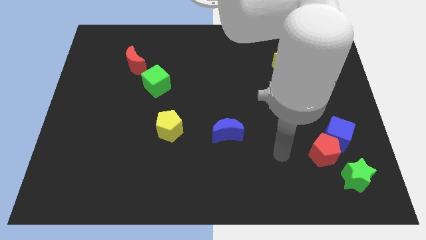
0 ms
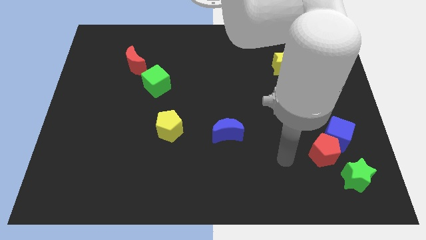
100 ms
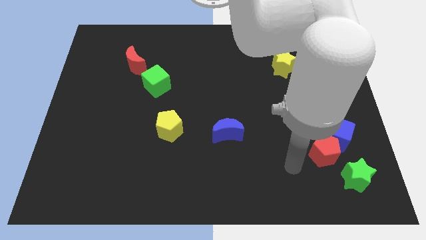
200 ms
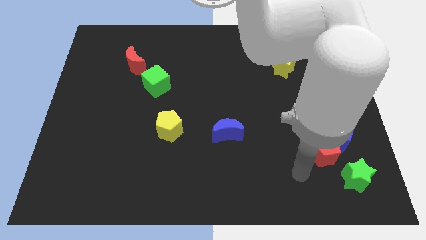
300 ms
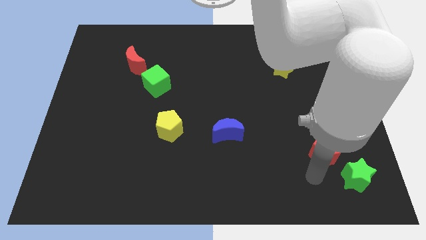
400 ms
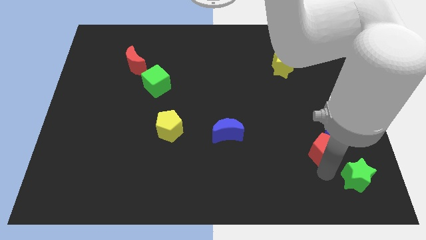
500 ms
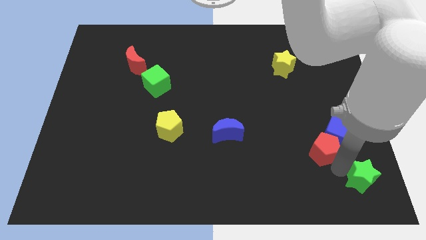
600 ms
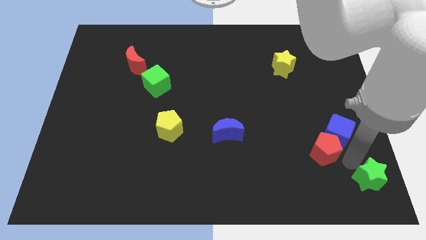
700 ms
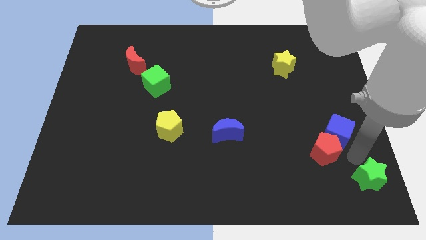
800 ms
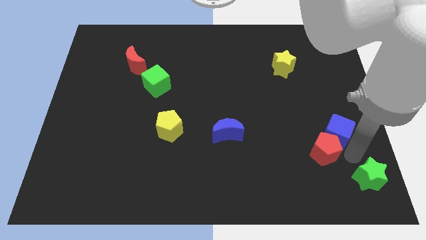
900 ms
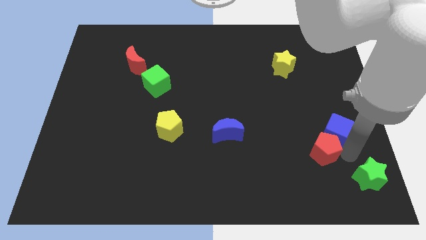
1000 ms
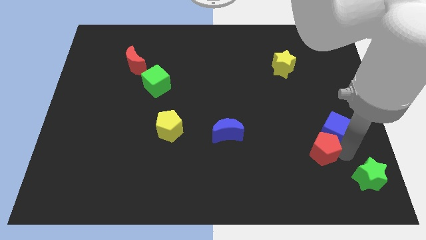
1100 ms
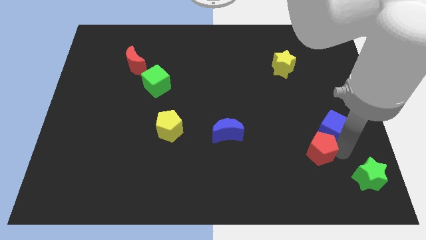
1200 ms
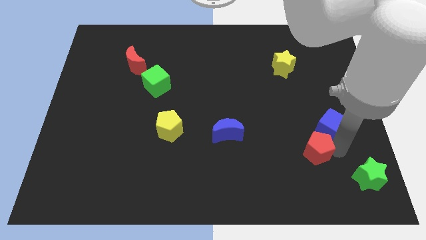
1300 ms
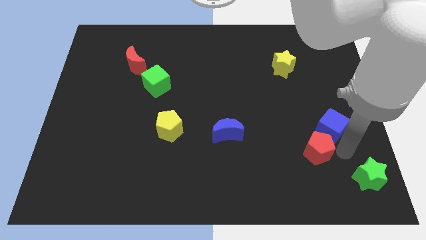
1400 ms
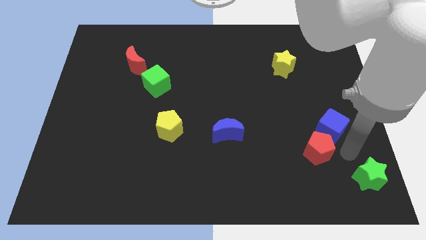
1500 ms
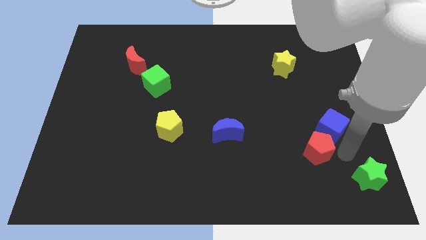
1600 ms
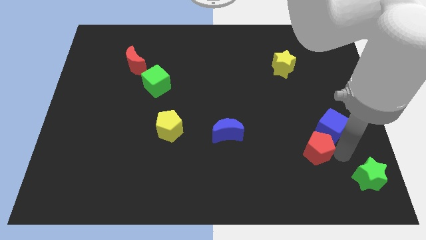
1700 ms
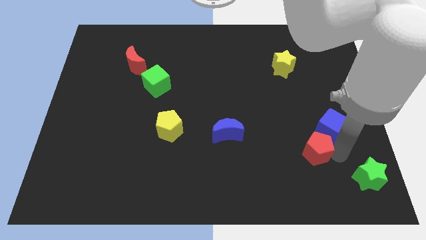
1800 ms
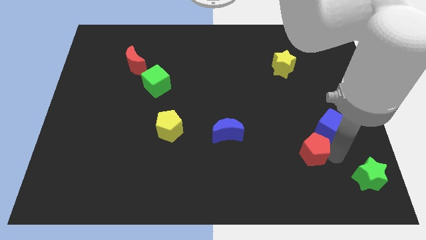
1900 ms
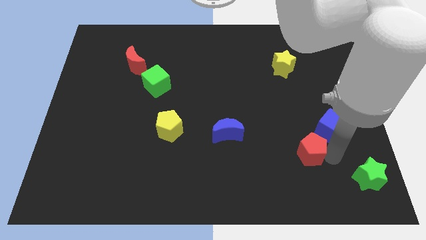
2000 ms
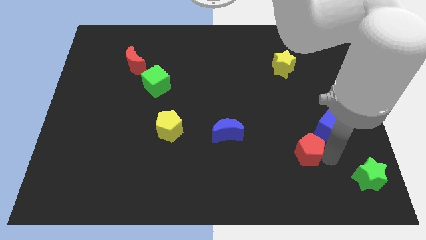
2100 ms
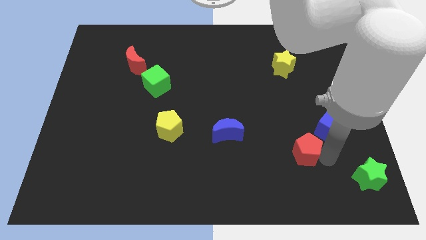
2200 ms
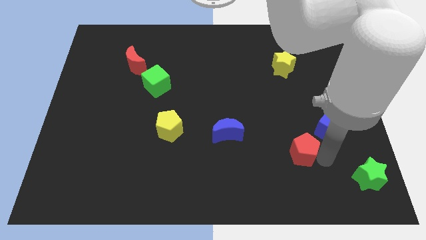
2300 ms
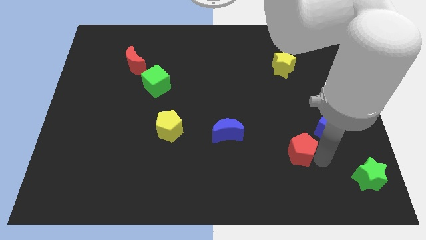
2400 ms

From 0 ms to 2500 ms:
pull the red pentagon apart from the blue cube and green star

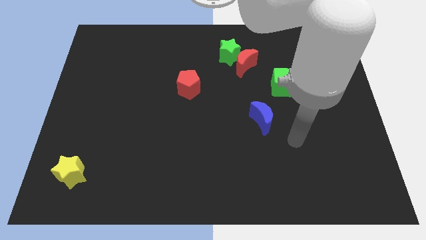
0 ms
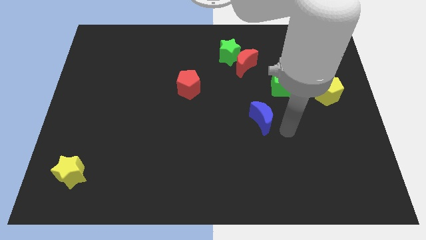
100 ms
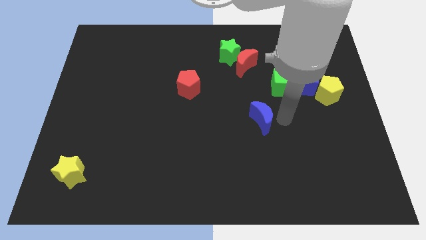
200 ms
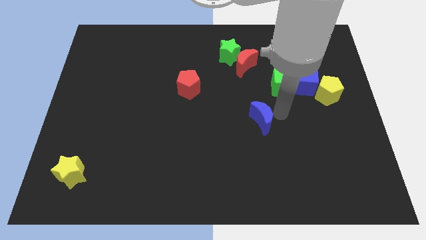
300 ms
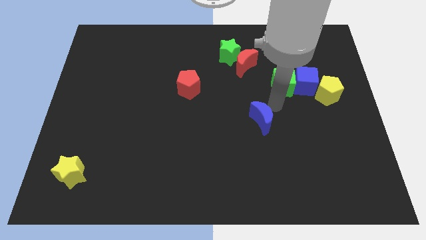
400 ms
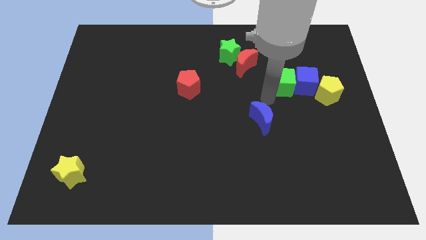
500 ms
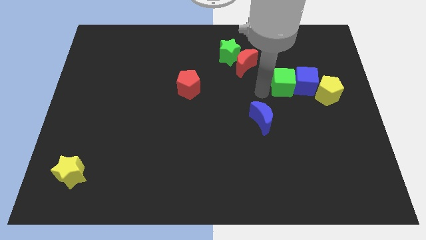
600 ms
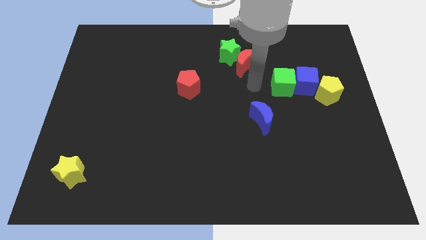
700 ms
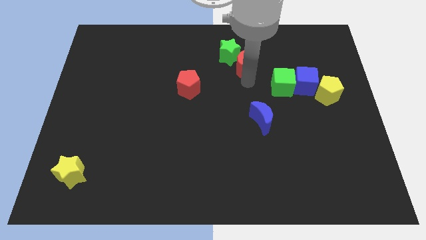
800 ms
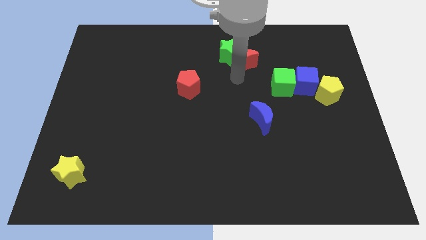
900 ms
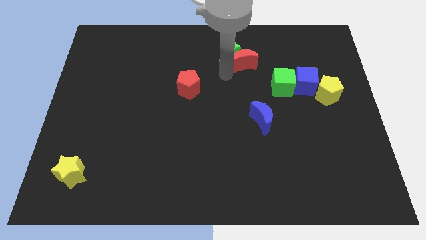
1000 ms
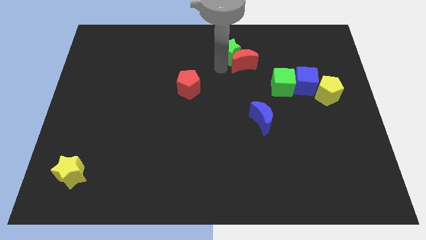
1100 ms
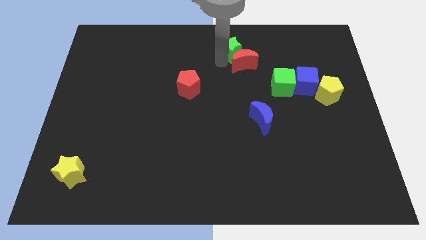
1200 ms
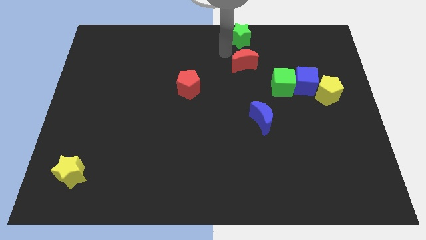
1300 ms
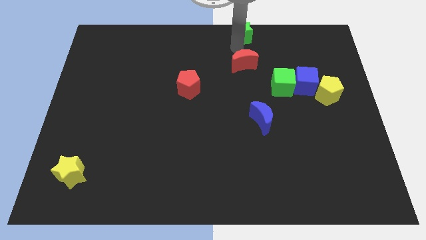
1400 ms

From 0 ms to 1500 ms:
move the red moon away from the green star

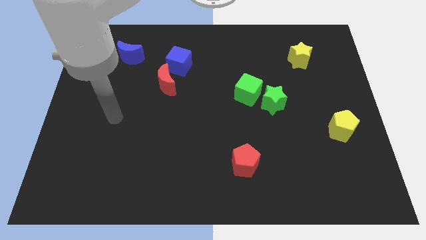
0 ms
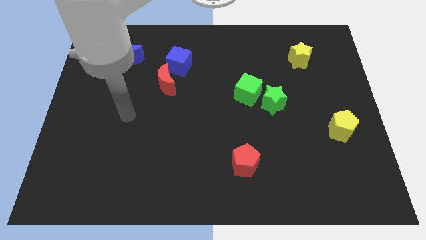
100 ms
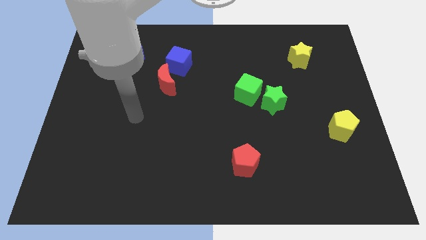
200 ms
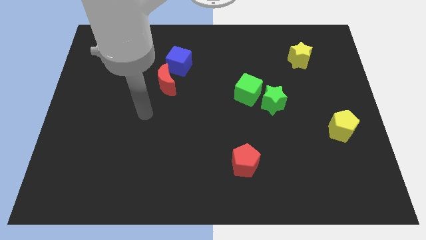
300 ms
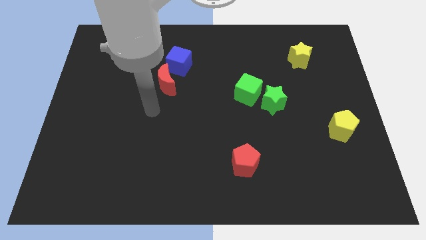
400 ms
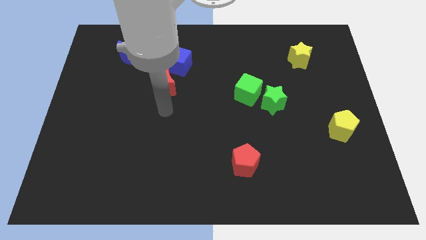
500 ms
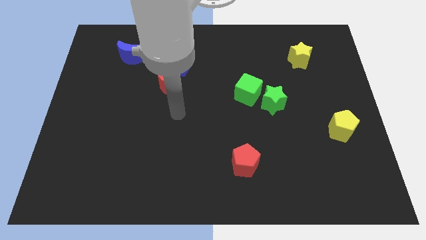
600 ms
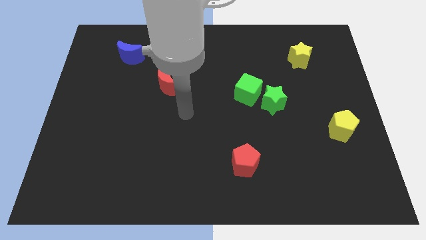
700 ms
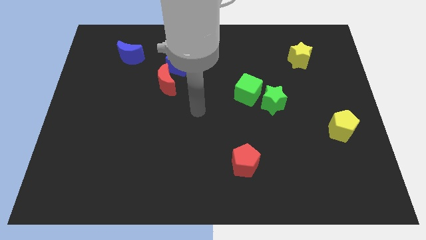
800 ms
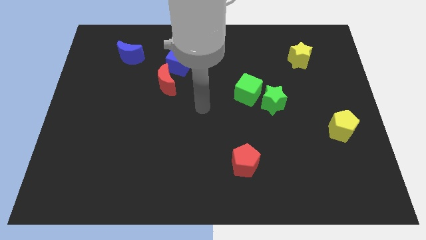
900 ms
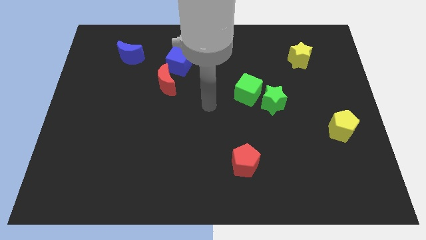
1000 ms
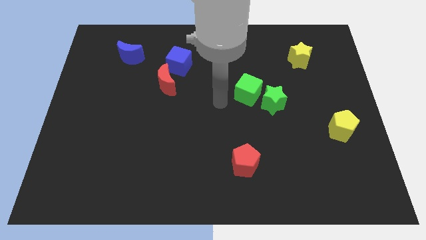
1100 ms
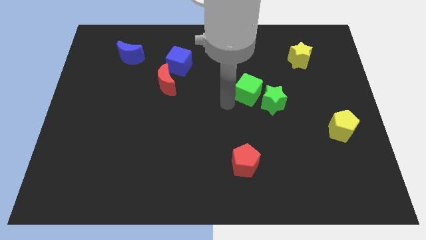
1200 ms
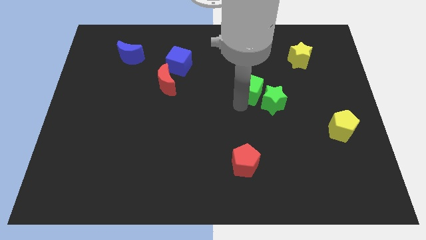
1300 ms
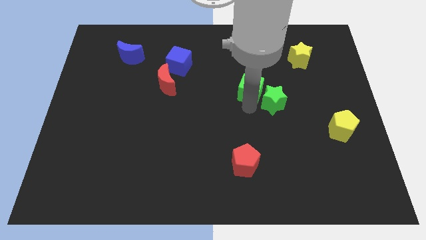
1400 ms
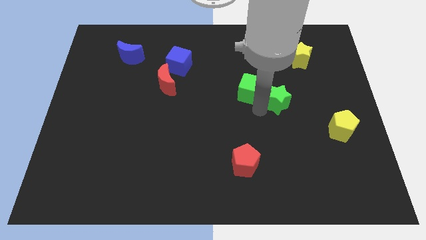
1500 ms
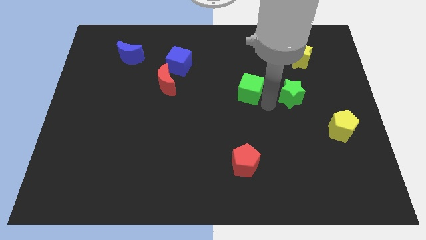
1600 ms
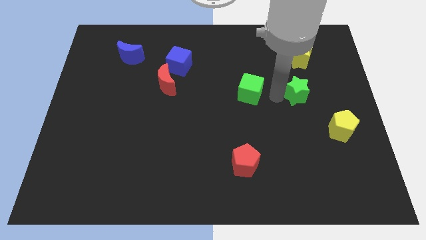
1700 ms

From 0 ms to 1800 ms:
separate the green cube from the green star

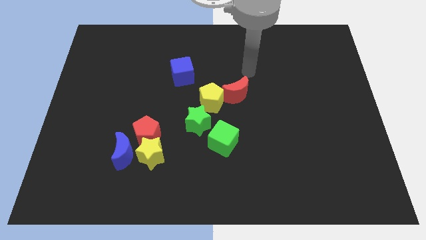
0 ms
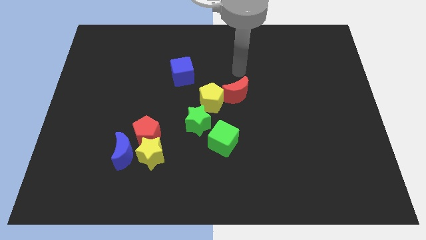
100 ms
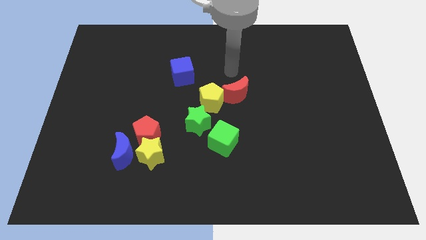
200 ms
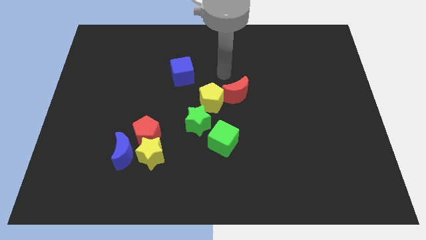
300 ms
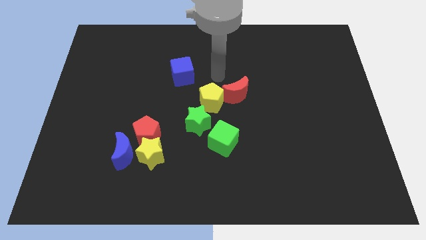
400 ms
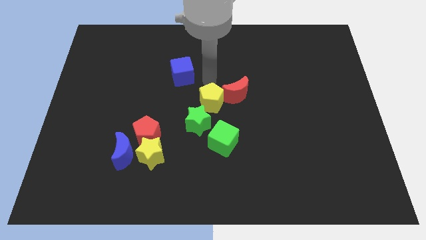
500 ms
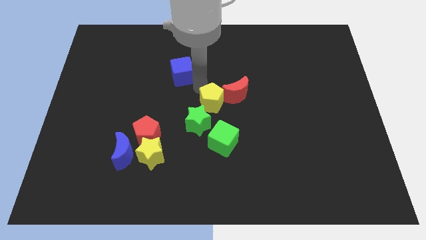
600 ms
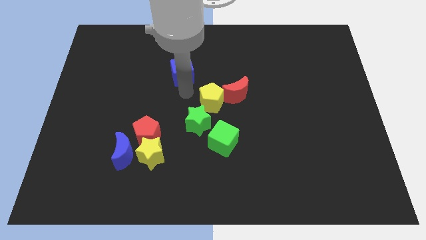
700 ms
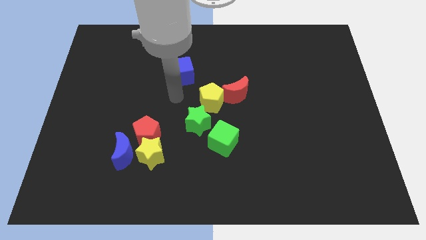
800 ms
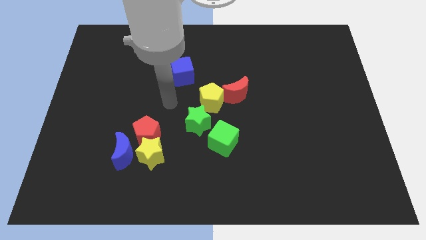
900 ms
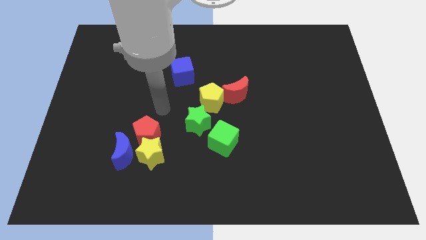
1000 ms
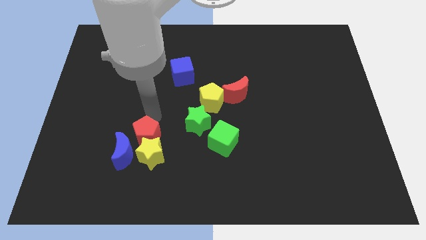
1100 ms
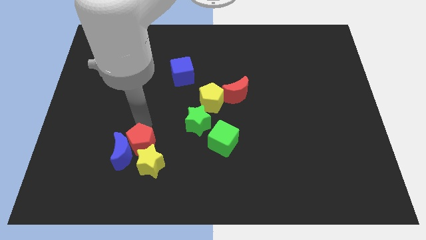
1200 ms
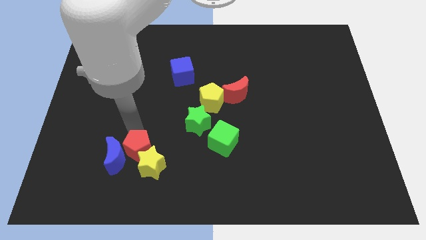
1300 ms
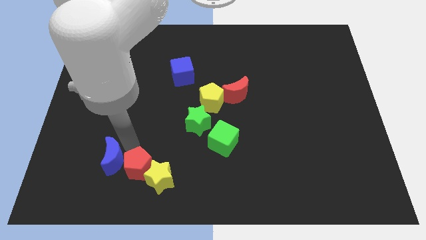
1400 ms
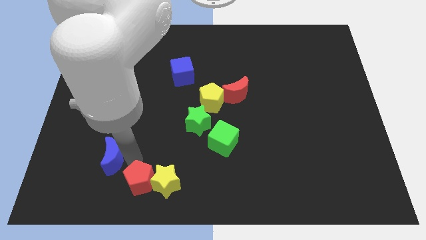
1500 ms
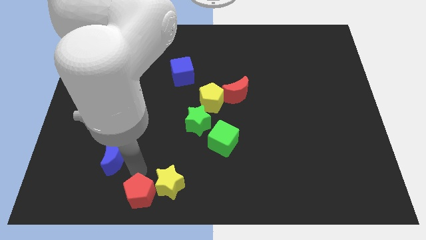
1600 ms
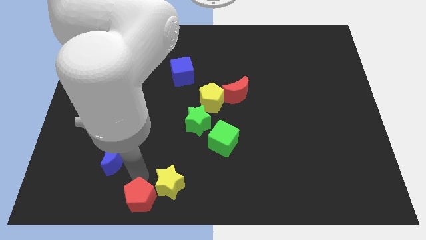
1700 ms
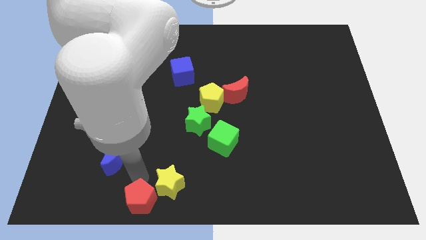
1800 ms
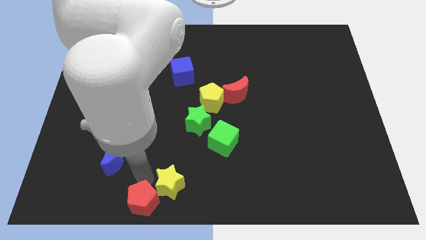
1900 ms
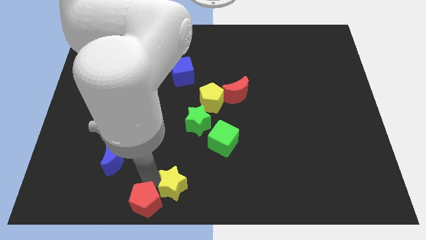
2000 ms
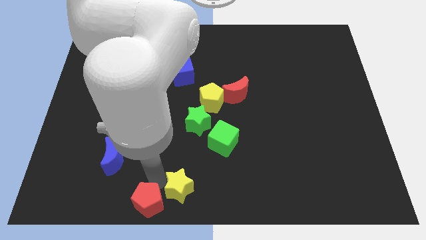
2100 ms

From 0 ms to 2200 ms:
pull the yellow star apart from the red pentagon and blue moon

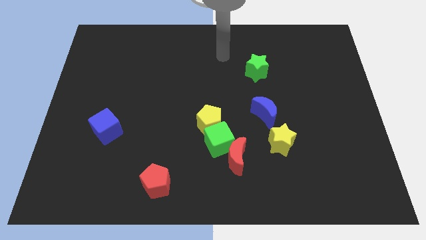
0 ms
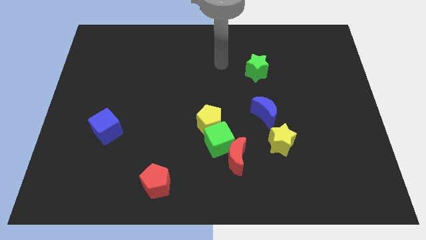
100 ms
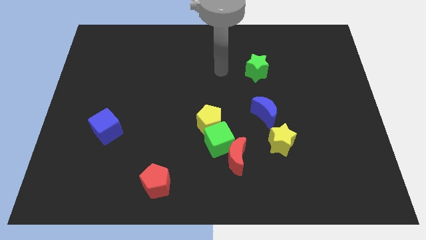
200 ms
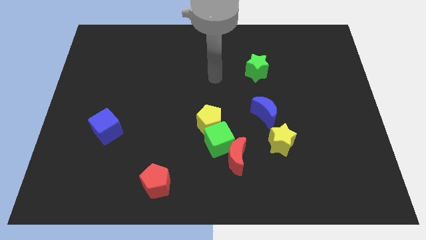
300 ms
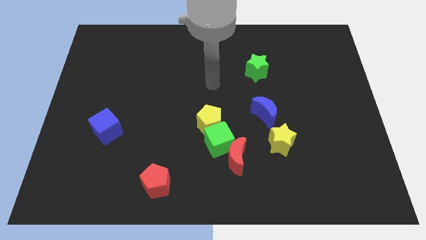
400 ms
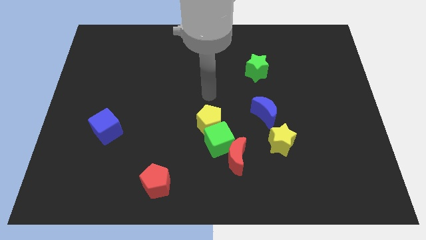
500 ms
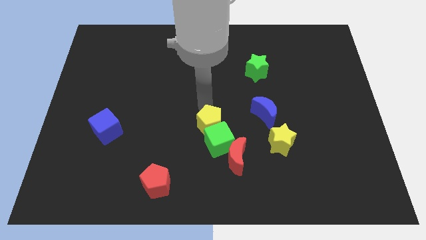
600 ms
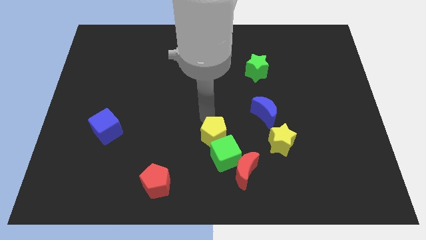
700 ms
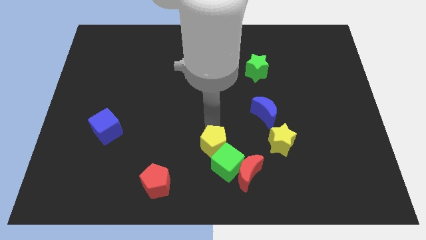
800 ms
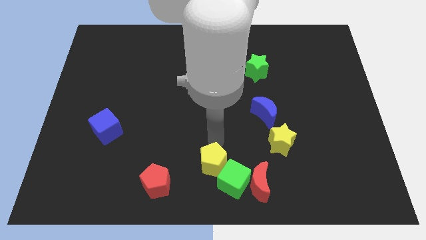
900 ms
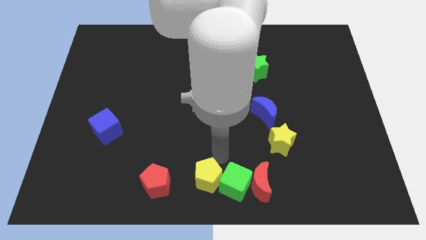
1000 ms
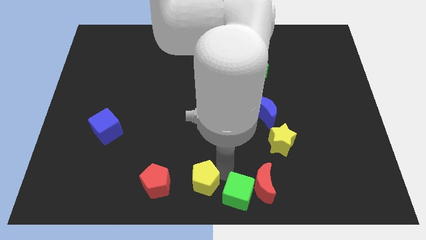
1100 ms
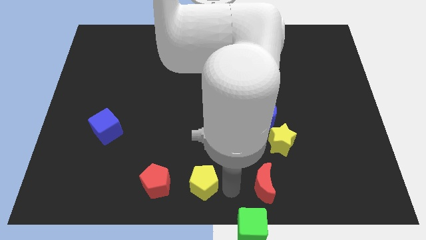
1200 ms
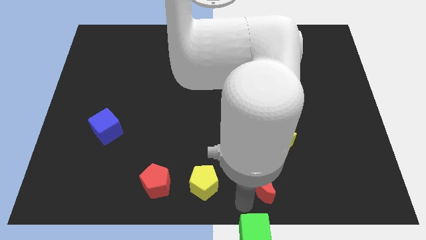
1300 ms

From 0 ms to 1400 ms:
pull the red moon apart from the green cube
